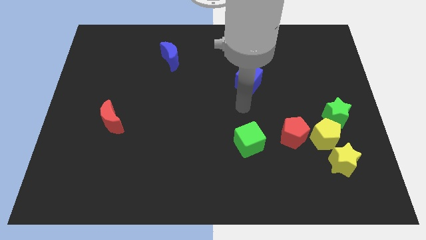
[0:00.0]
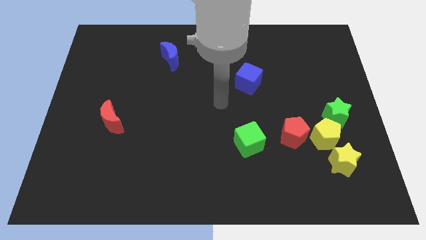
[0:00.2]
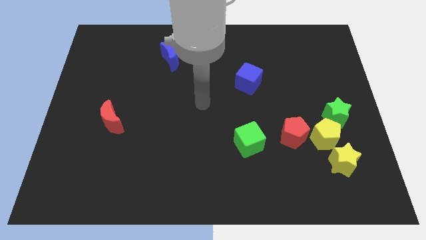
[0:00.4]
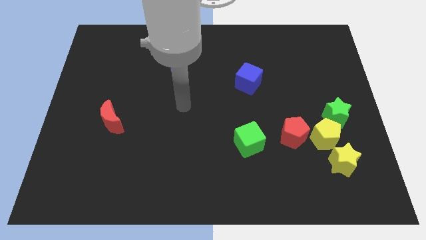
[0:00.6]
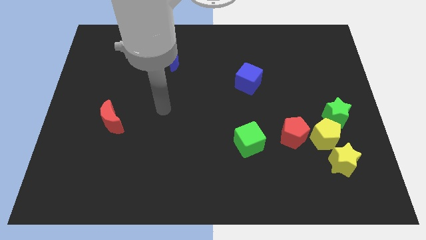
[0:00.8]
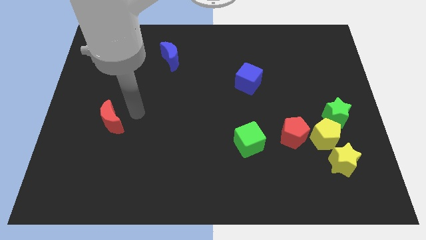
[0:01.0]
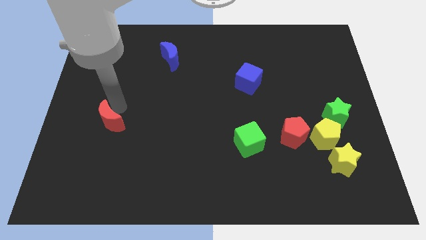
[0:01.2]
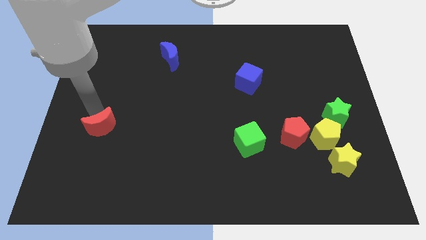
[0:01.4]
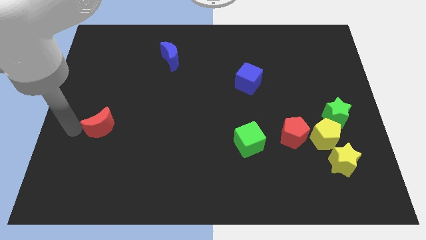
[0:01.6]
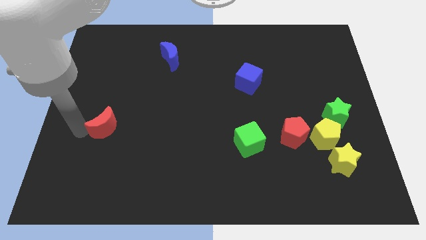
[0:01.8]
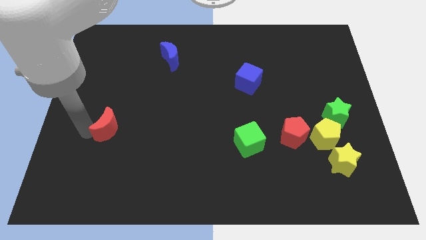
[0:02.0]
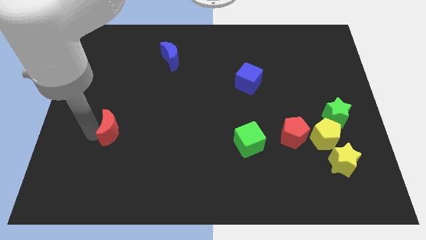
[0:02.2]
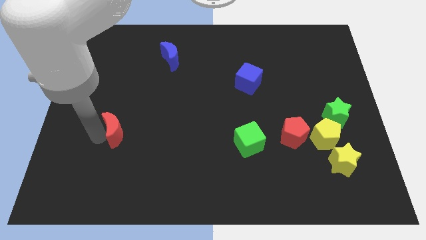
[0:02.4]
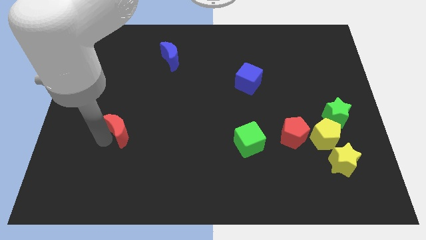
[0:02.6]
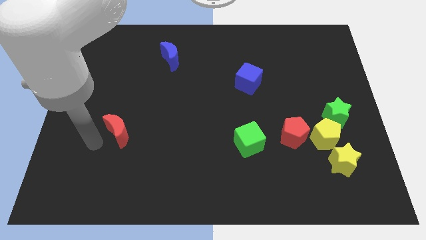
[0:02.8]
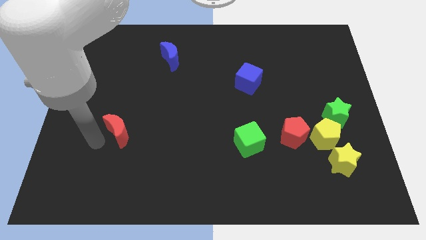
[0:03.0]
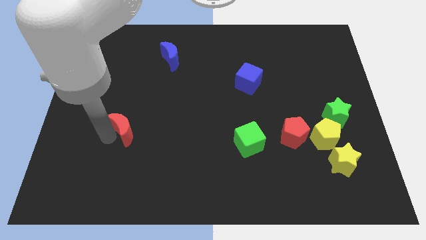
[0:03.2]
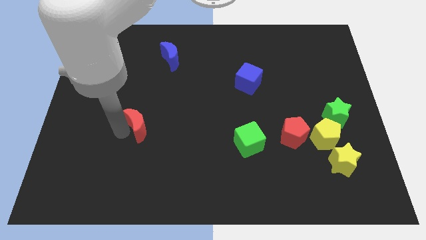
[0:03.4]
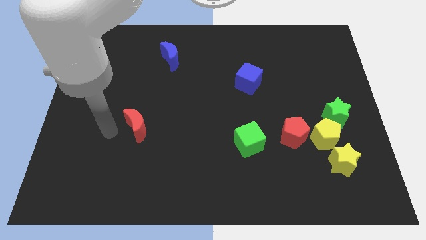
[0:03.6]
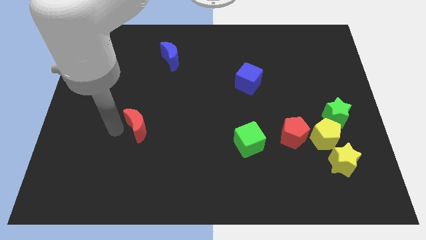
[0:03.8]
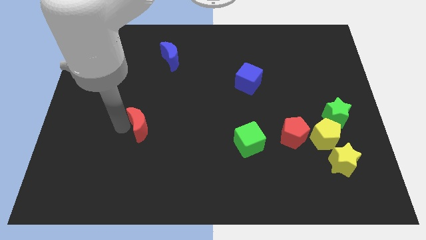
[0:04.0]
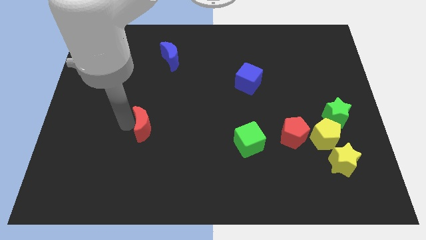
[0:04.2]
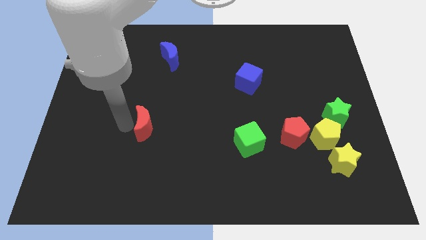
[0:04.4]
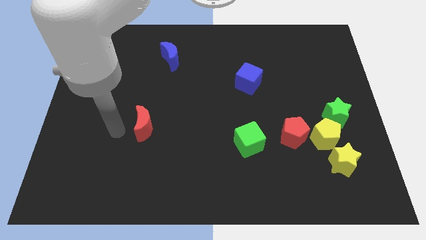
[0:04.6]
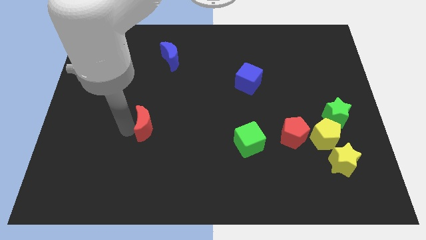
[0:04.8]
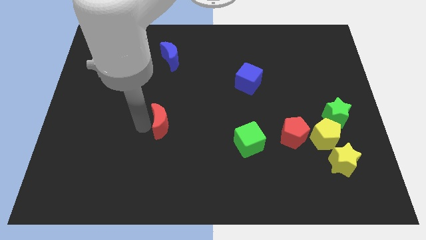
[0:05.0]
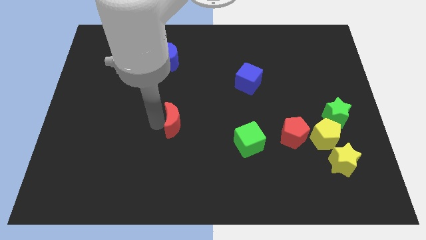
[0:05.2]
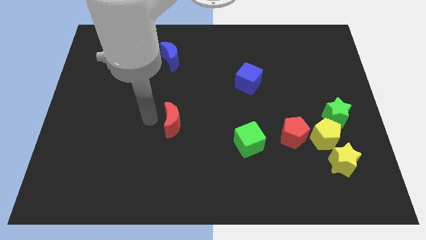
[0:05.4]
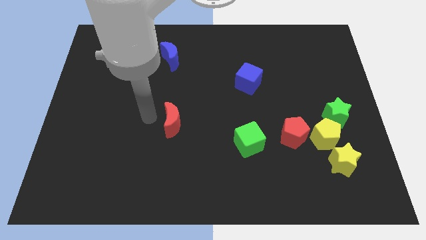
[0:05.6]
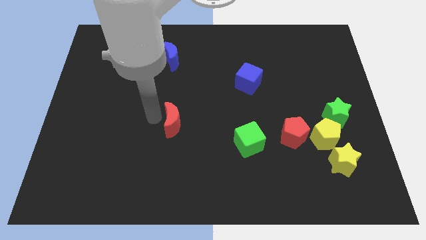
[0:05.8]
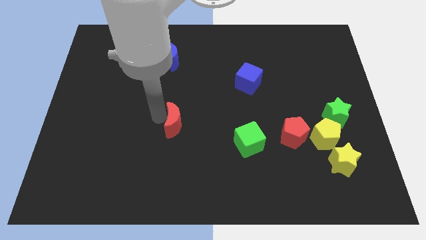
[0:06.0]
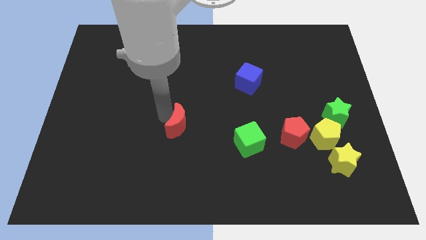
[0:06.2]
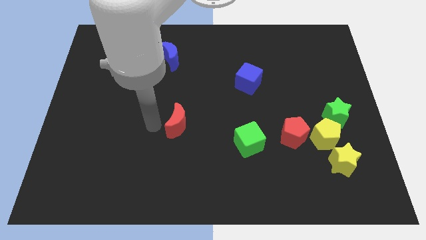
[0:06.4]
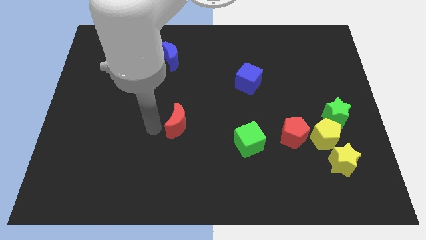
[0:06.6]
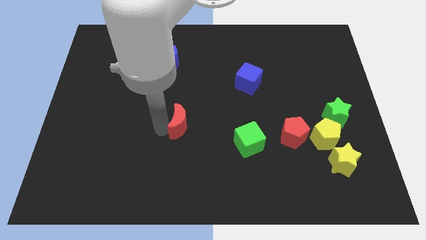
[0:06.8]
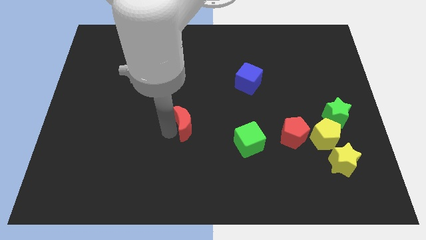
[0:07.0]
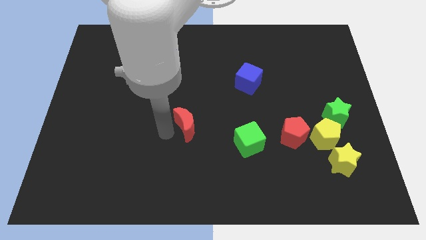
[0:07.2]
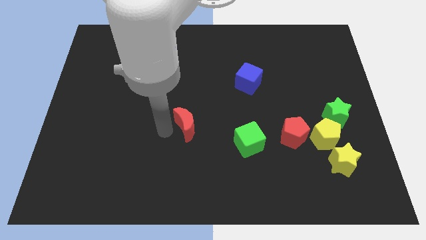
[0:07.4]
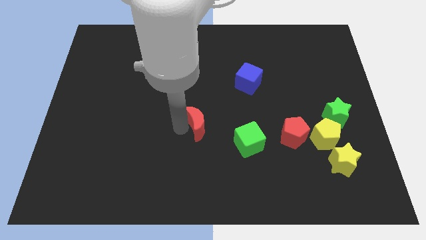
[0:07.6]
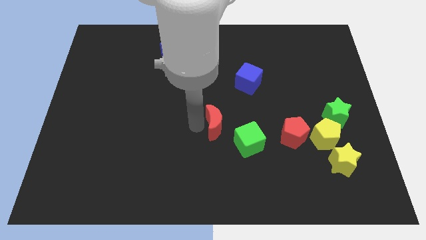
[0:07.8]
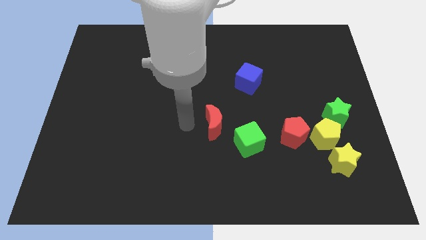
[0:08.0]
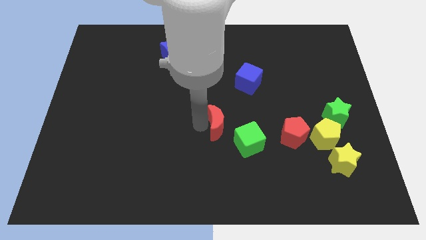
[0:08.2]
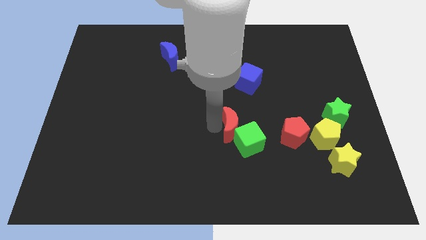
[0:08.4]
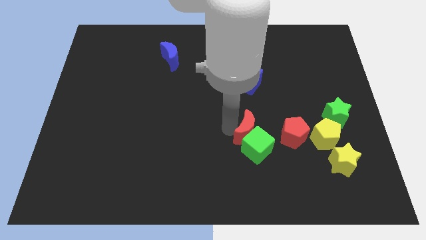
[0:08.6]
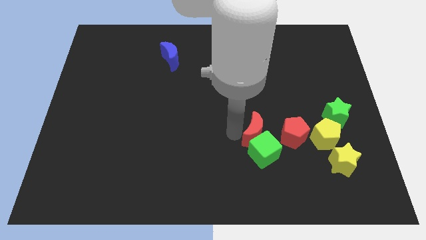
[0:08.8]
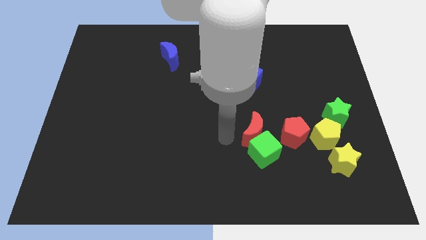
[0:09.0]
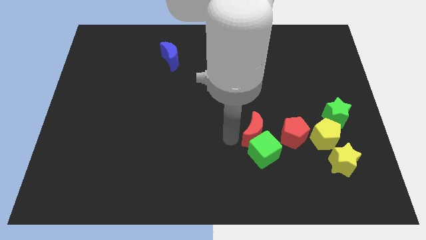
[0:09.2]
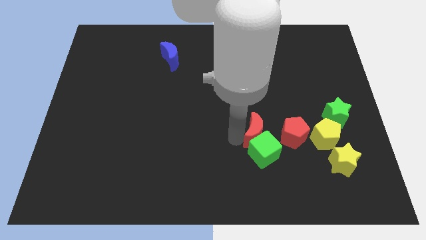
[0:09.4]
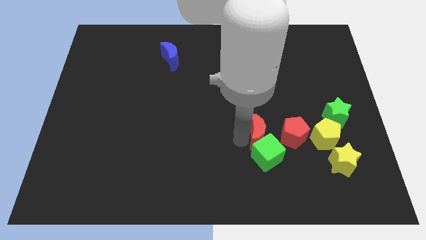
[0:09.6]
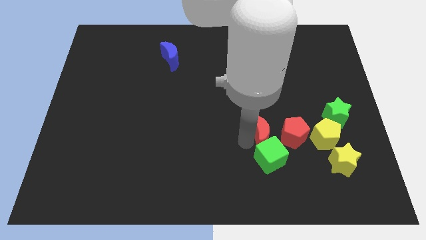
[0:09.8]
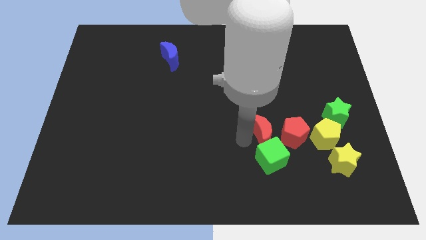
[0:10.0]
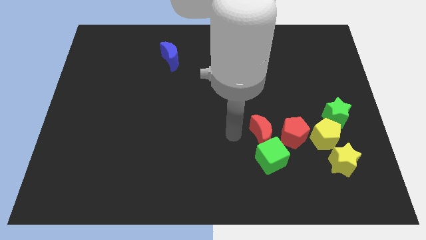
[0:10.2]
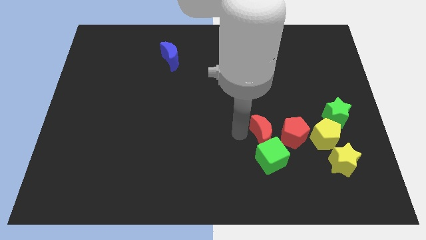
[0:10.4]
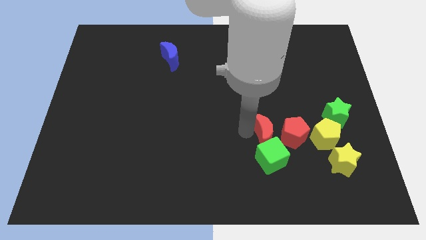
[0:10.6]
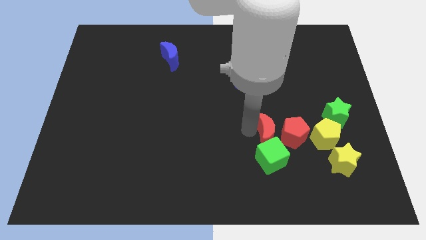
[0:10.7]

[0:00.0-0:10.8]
move the red moon close to the red pentagon

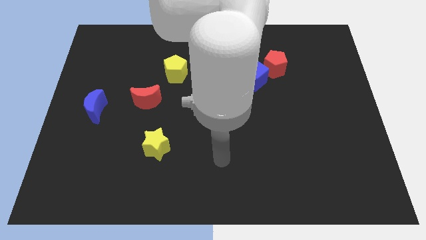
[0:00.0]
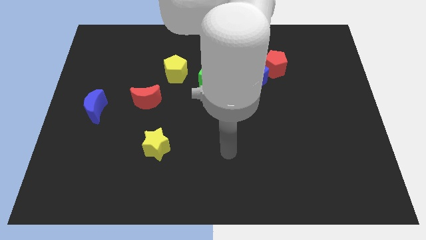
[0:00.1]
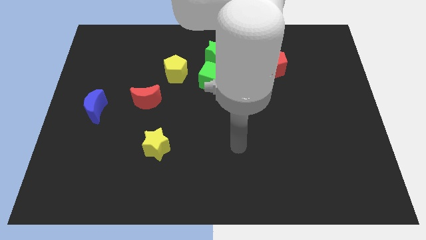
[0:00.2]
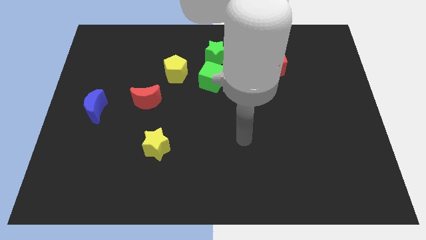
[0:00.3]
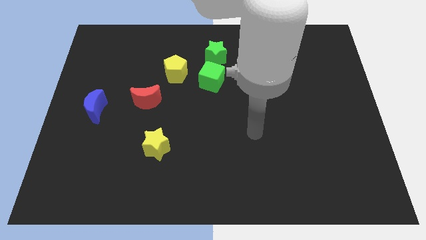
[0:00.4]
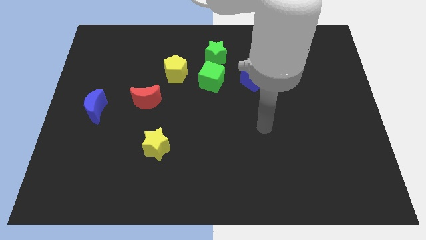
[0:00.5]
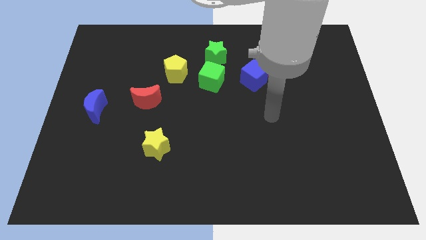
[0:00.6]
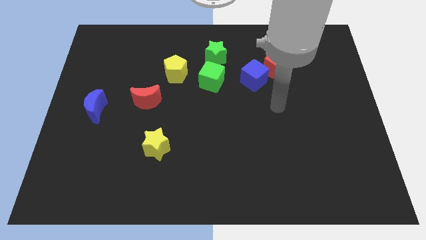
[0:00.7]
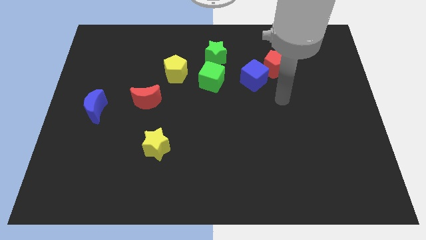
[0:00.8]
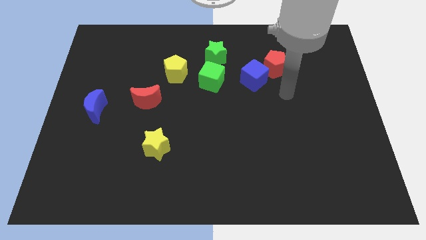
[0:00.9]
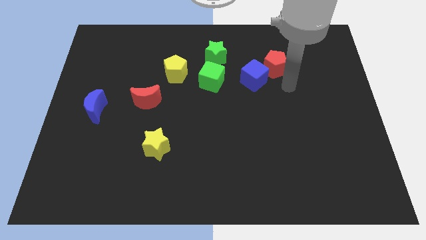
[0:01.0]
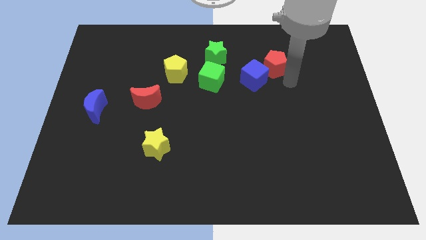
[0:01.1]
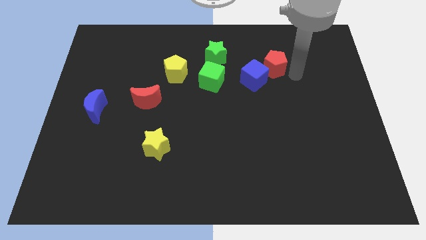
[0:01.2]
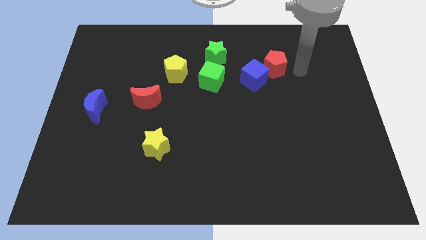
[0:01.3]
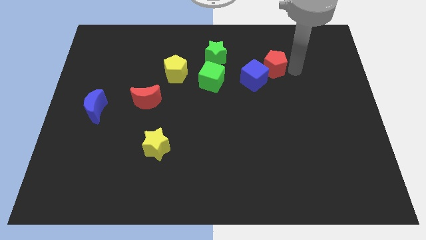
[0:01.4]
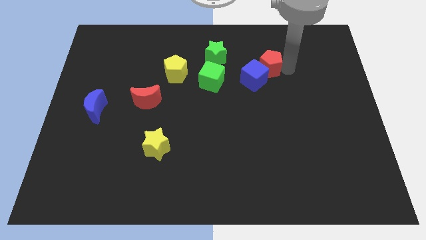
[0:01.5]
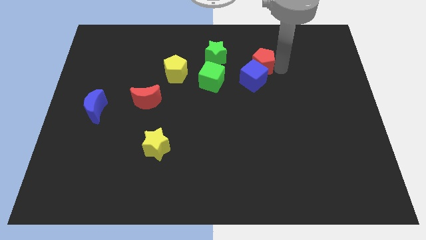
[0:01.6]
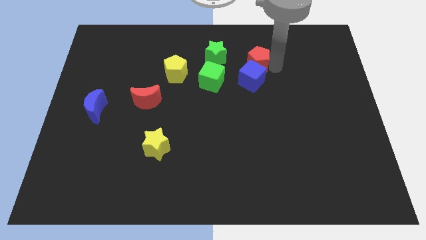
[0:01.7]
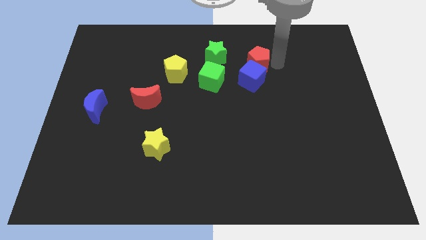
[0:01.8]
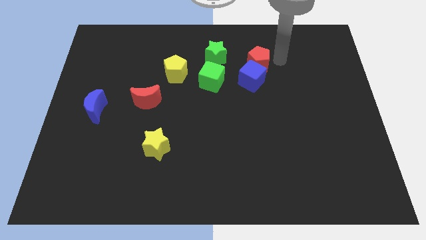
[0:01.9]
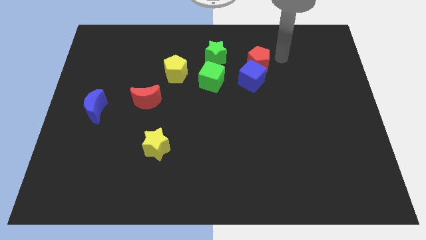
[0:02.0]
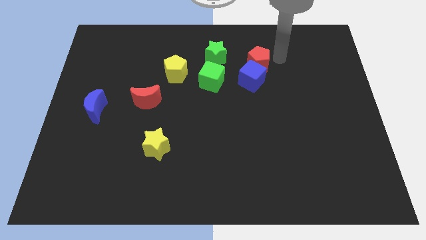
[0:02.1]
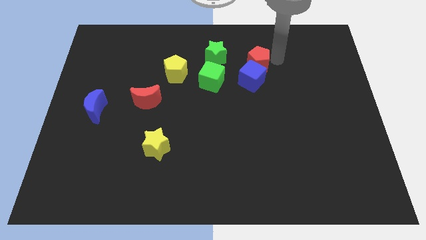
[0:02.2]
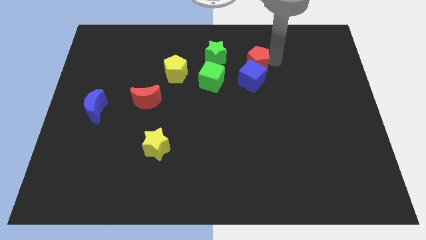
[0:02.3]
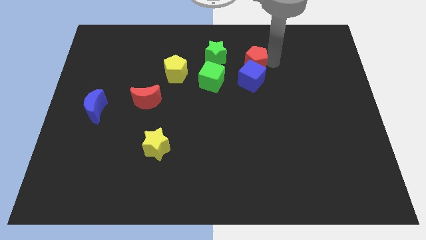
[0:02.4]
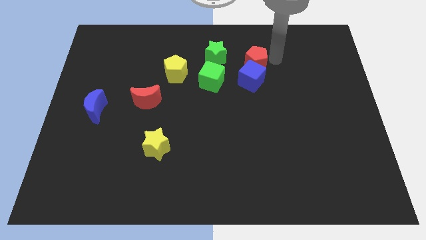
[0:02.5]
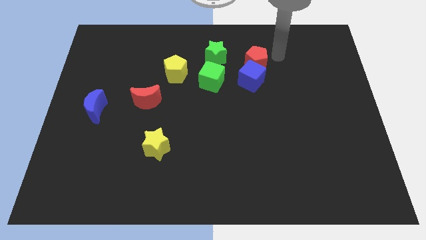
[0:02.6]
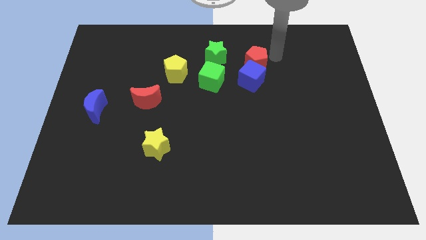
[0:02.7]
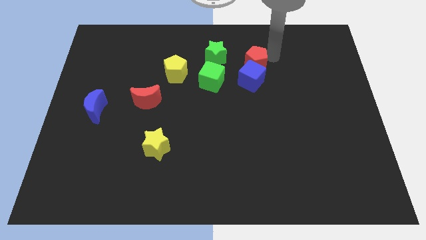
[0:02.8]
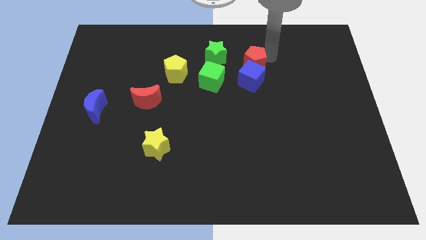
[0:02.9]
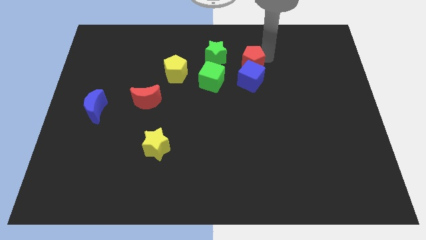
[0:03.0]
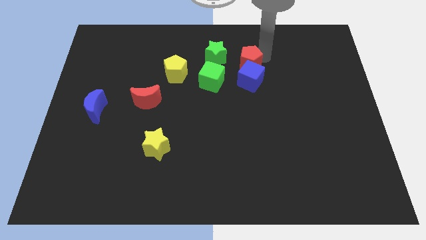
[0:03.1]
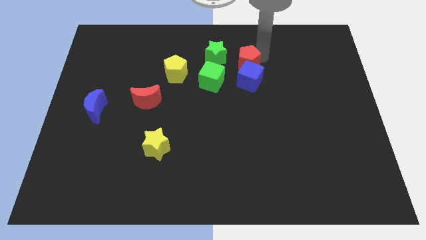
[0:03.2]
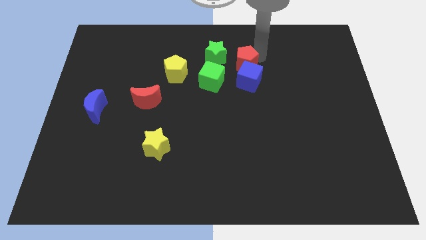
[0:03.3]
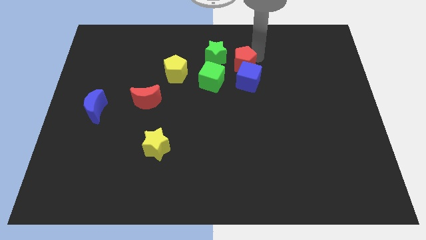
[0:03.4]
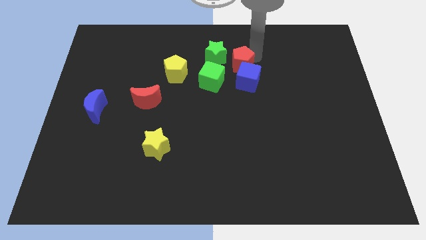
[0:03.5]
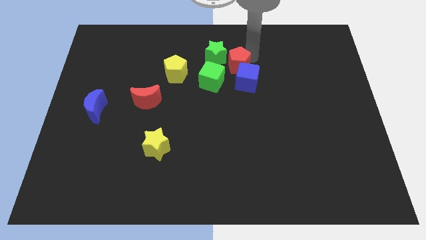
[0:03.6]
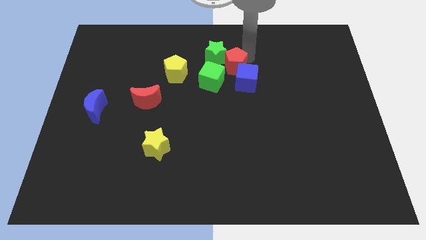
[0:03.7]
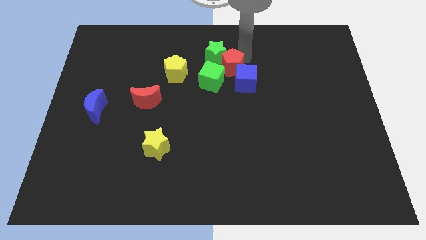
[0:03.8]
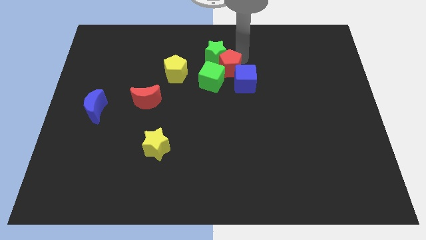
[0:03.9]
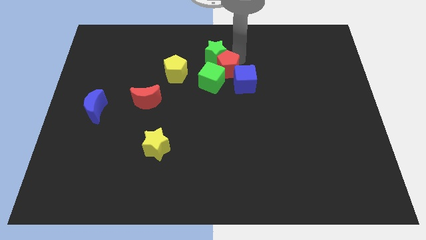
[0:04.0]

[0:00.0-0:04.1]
push the red pentagon towards the green cube
